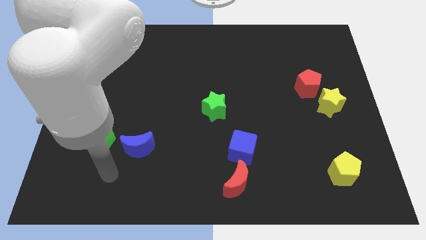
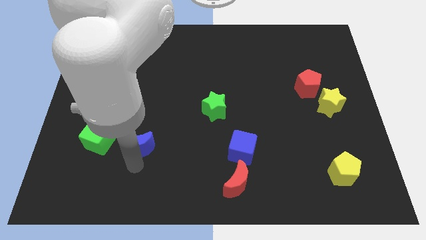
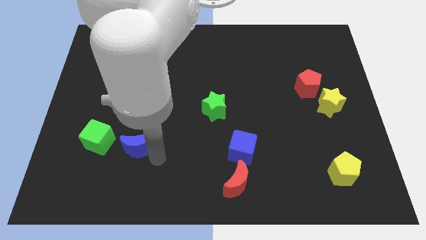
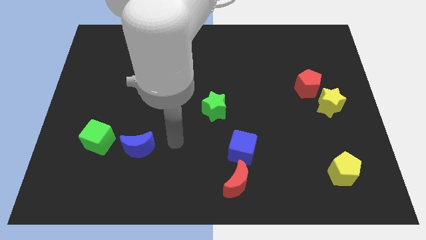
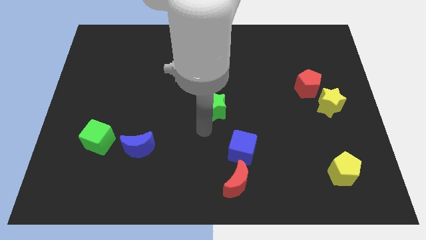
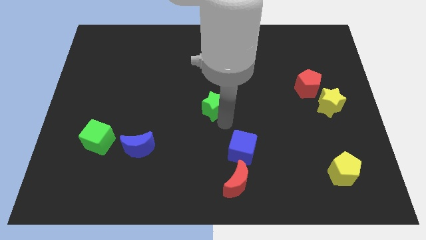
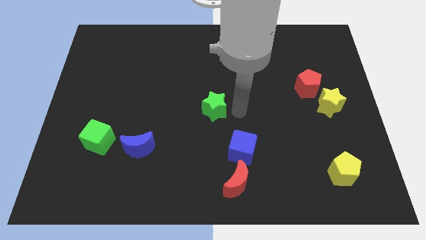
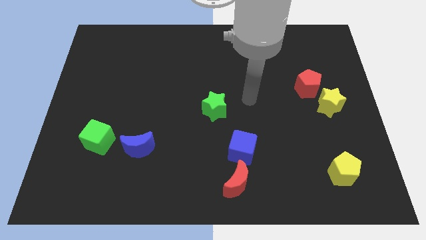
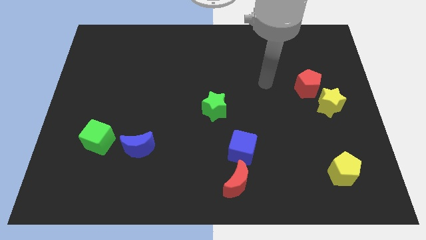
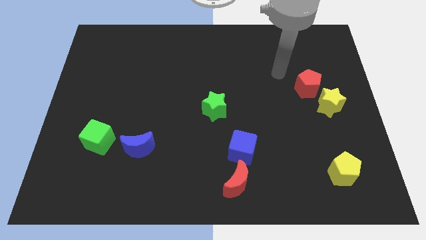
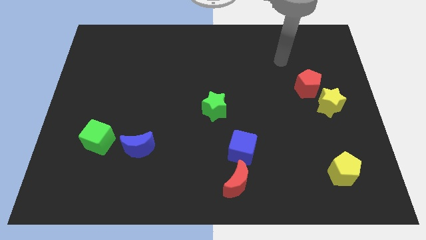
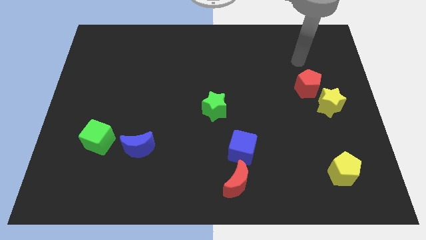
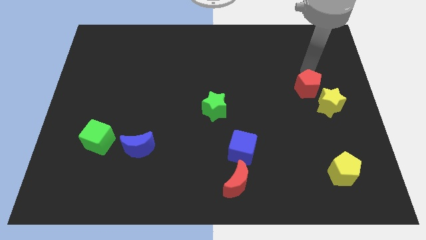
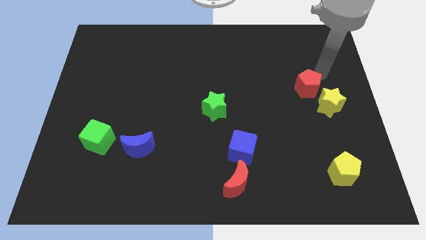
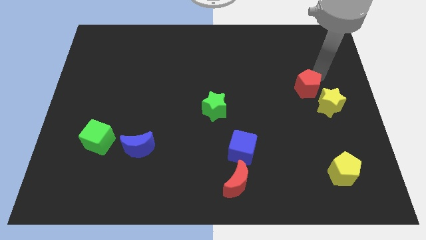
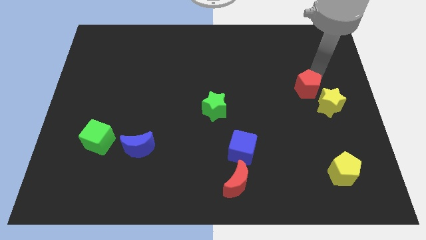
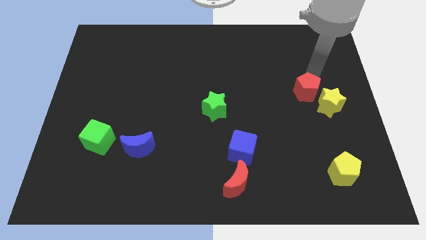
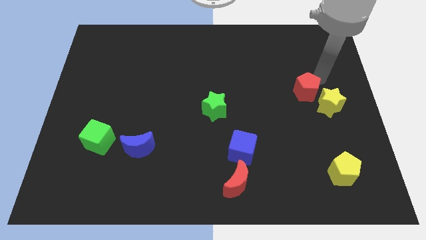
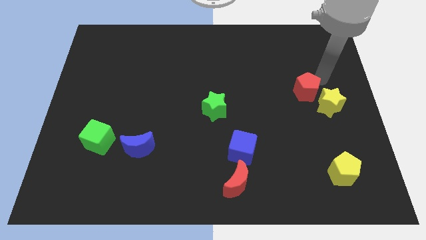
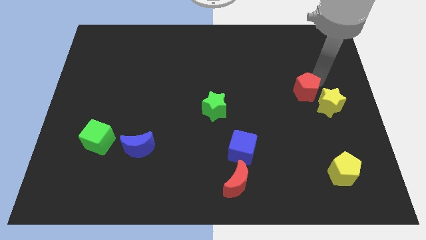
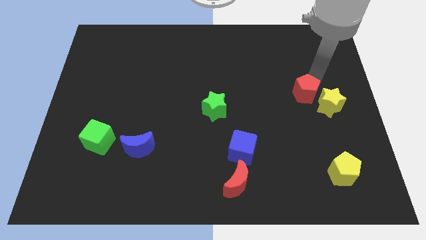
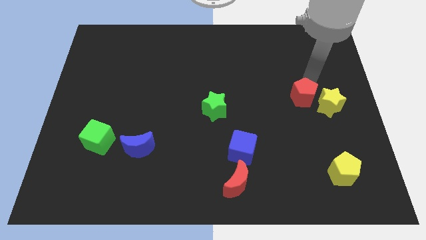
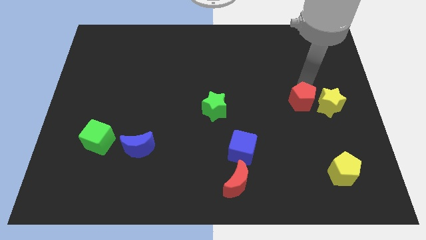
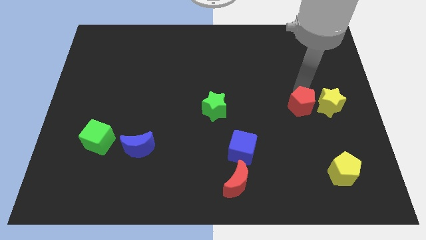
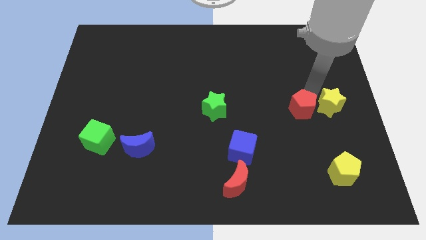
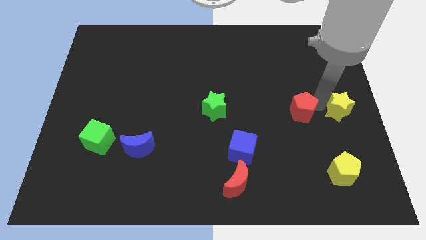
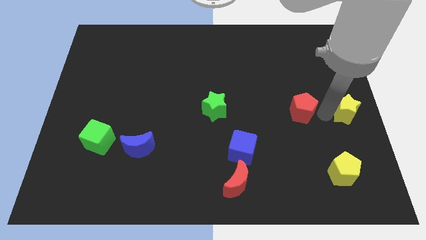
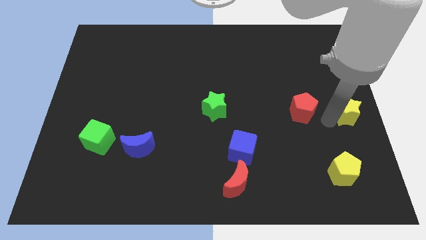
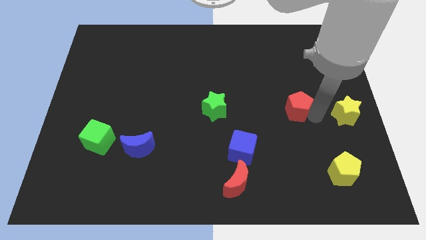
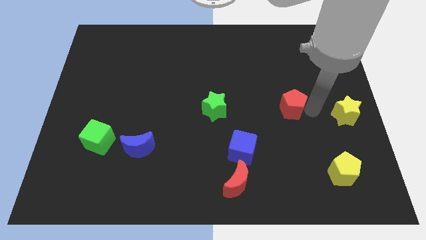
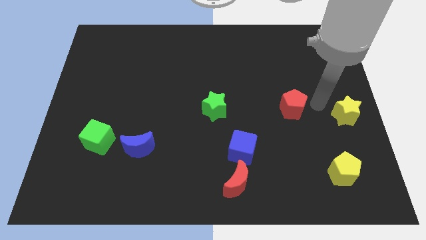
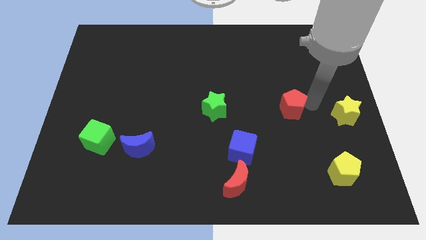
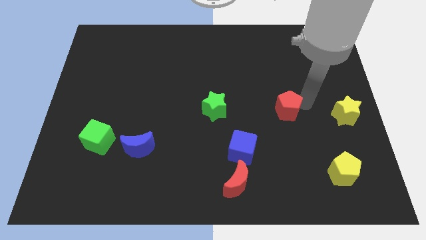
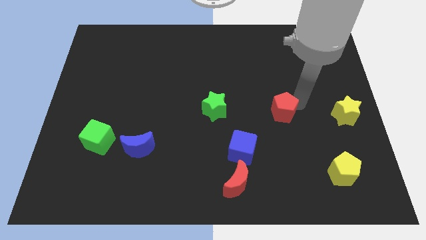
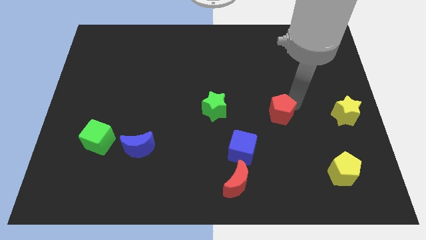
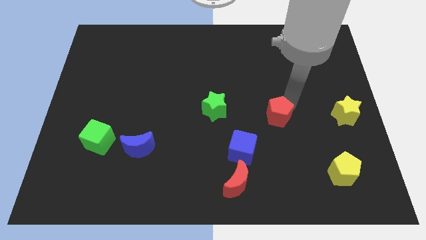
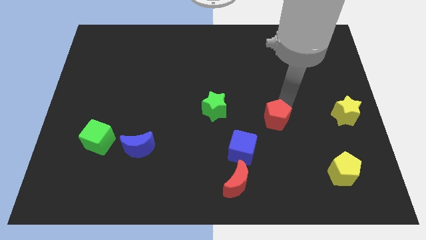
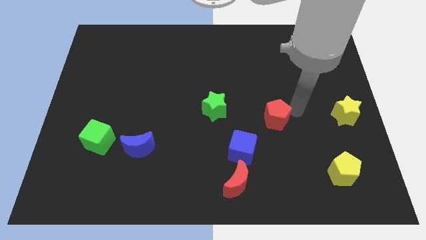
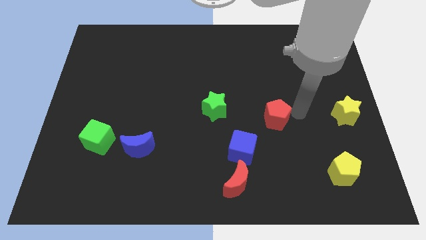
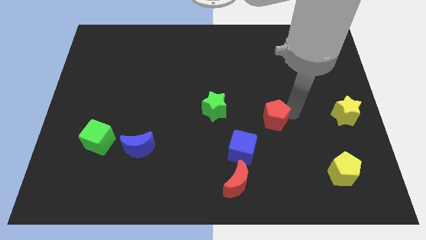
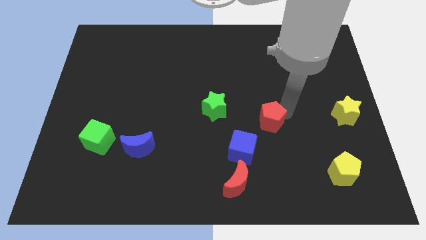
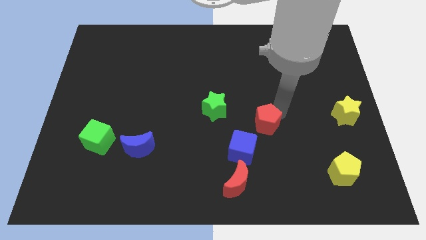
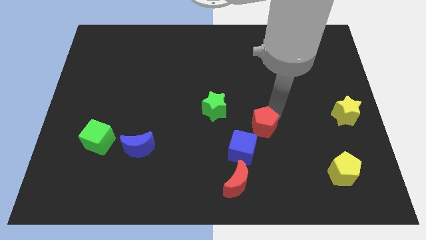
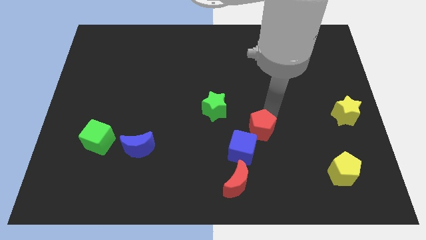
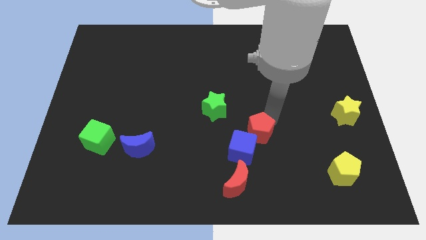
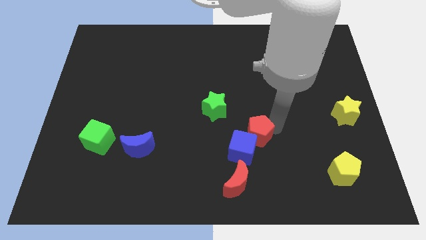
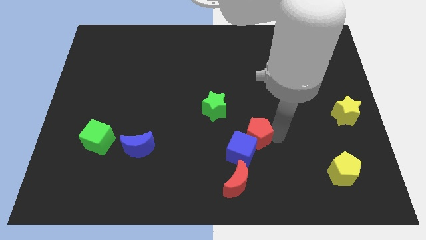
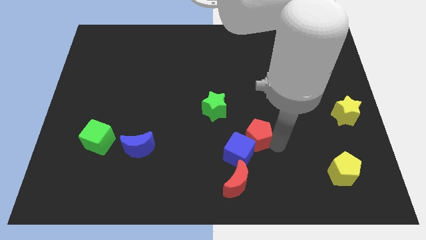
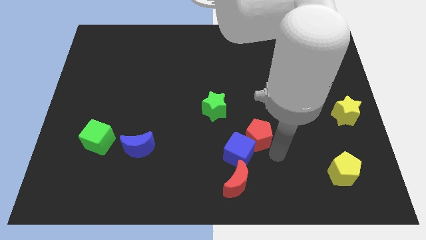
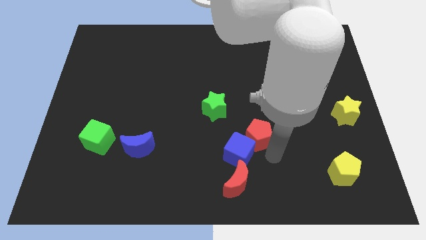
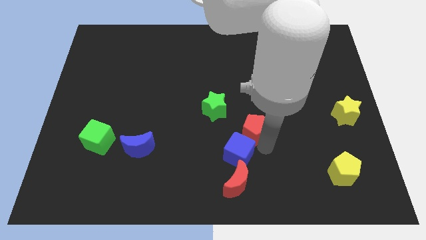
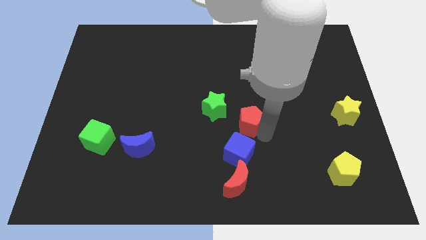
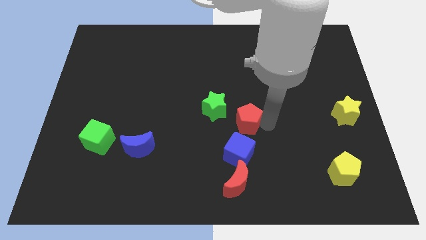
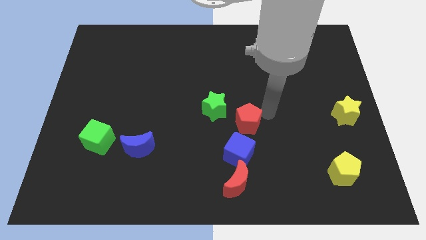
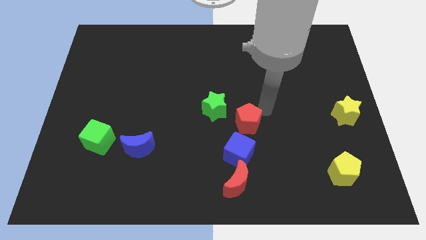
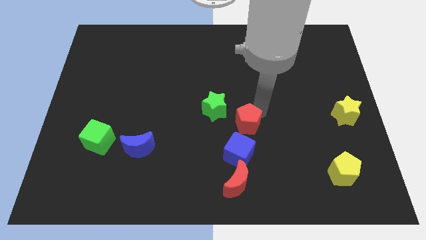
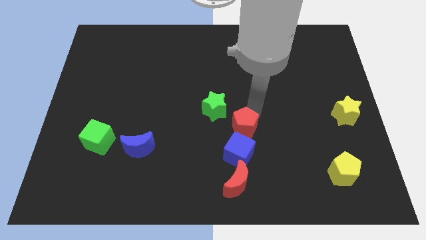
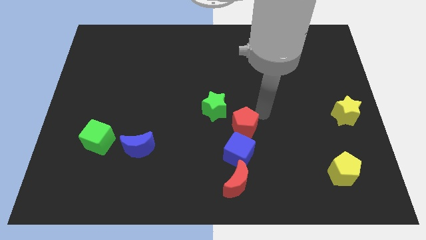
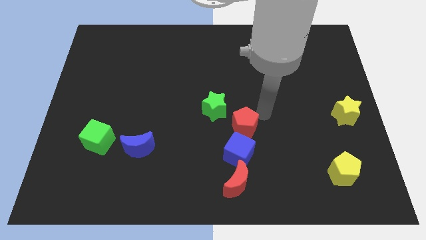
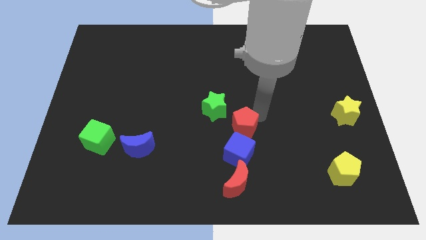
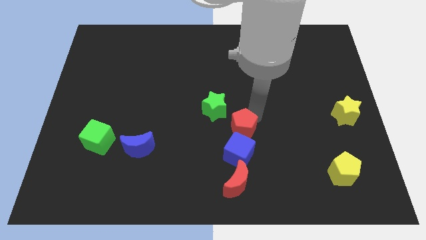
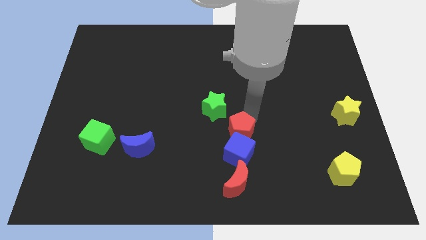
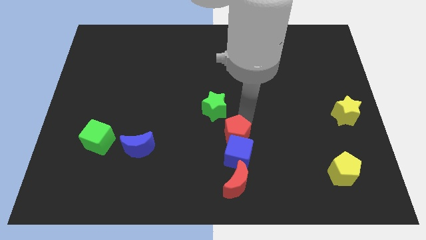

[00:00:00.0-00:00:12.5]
push the red pentagon to the bottom side of the green star

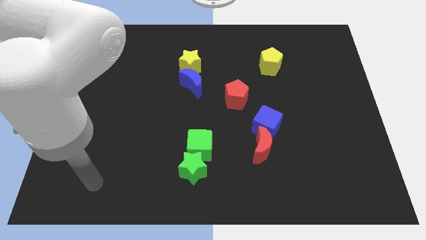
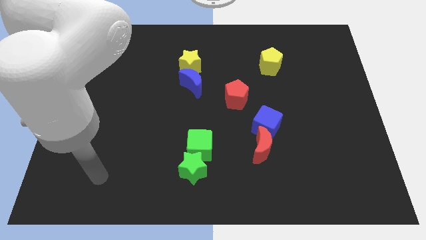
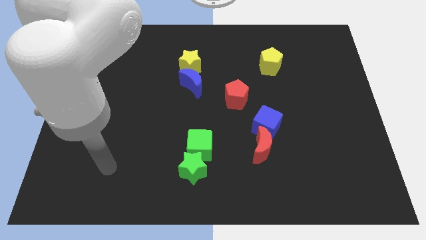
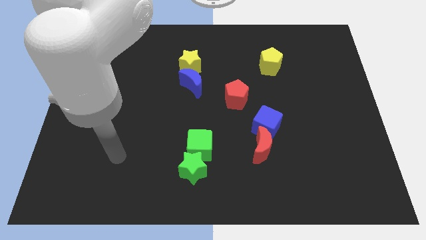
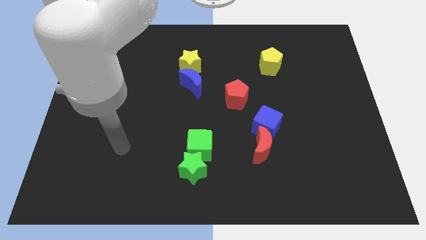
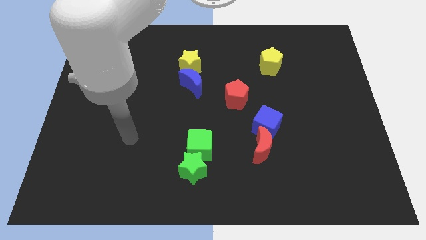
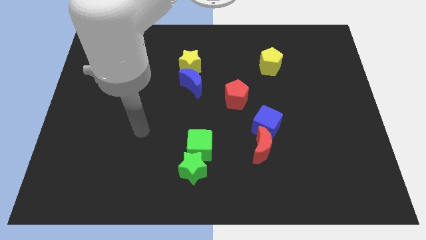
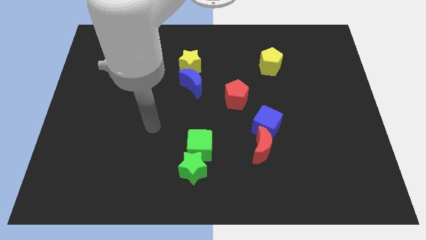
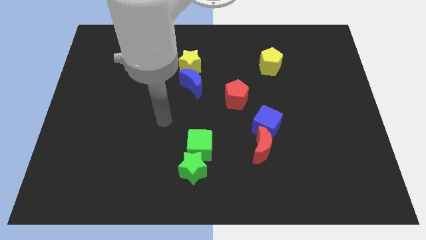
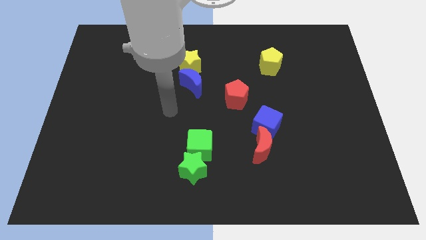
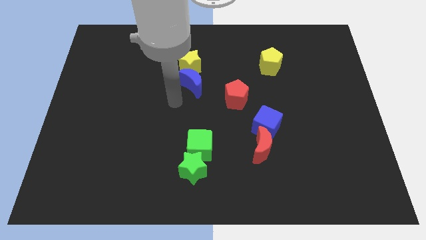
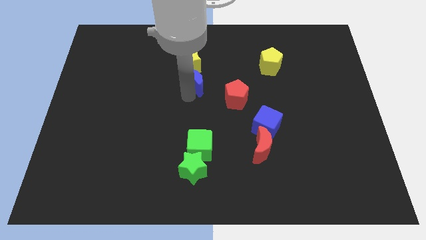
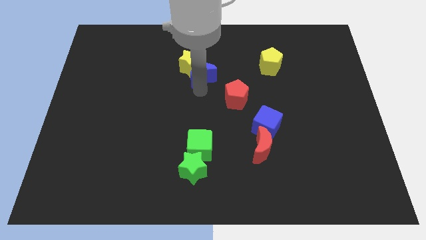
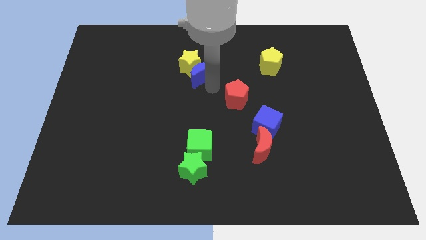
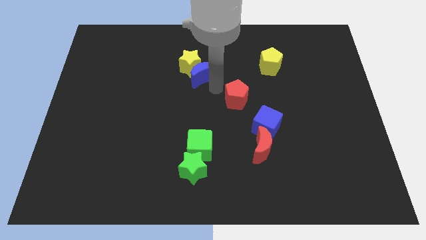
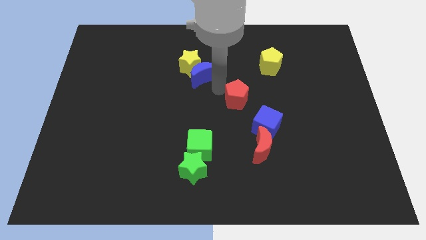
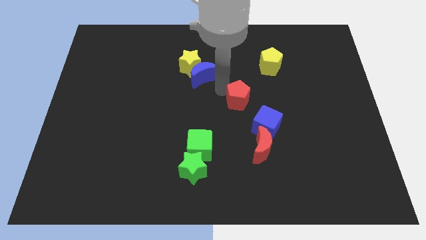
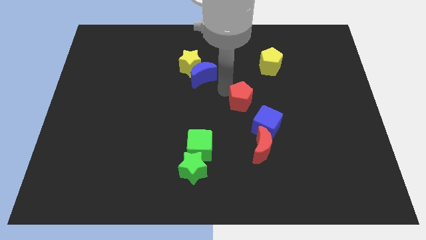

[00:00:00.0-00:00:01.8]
put the red pentagon to the top side of the red moon
